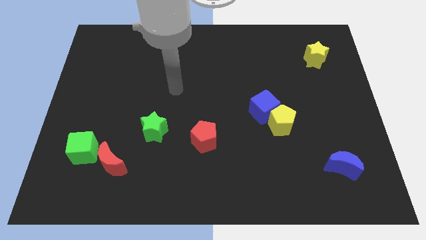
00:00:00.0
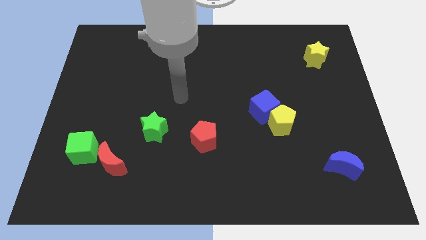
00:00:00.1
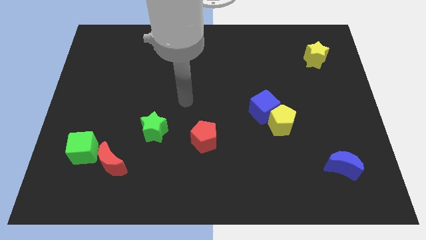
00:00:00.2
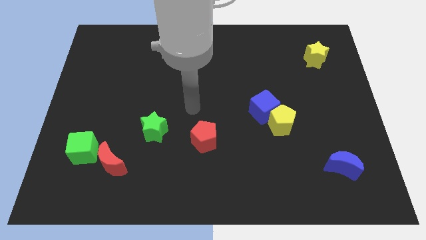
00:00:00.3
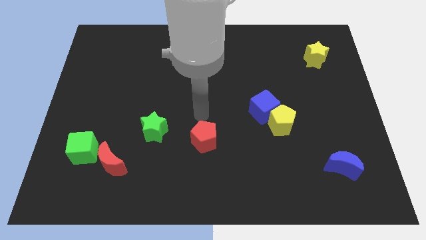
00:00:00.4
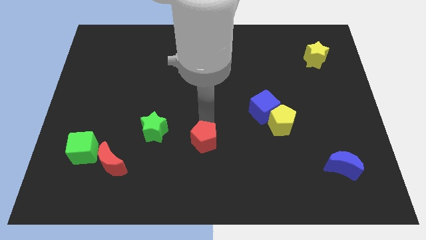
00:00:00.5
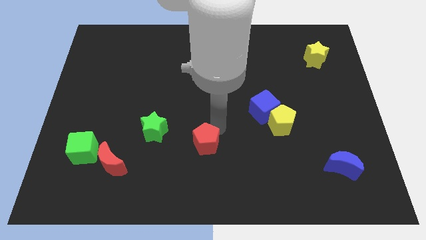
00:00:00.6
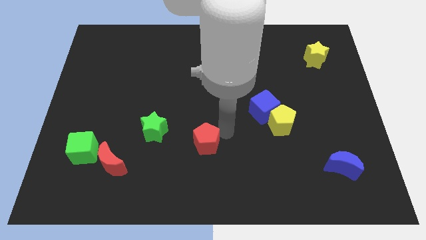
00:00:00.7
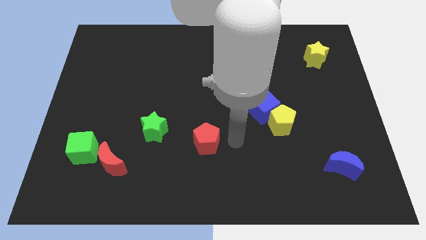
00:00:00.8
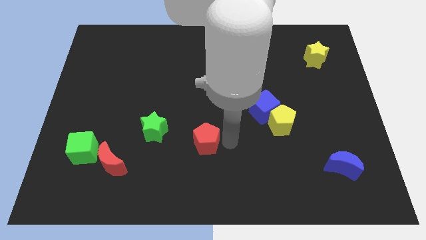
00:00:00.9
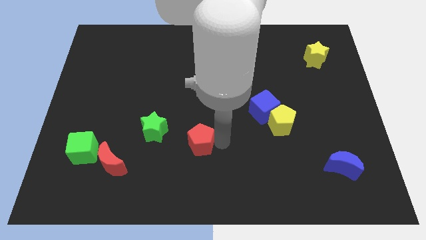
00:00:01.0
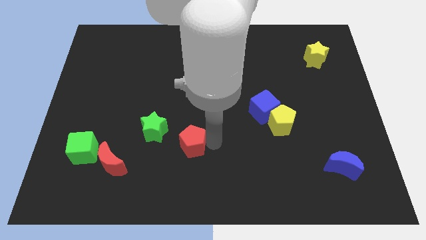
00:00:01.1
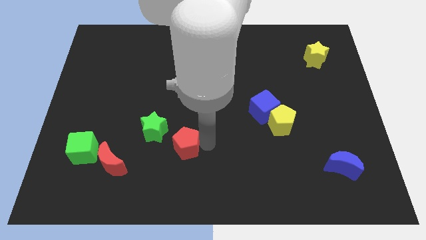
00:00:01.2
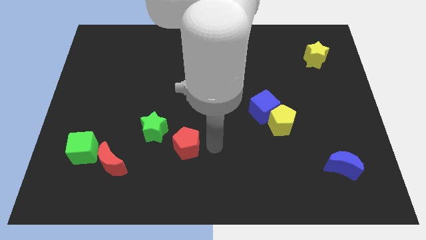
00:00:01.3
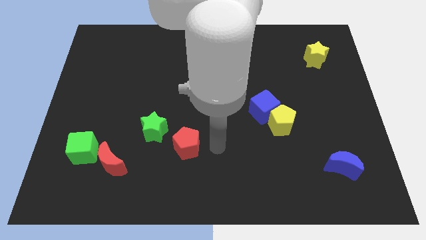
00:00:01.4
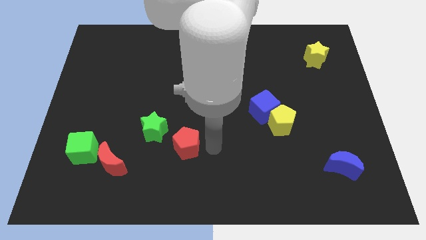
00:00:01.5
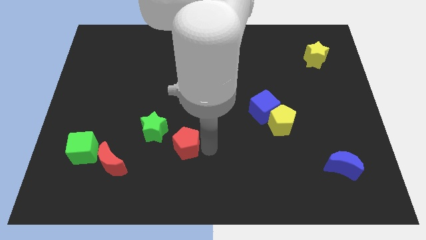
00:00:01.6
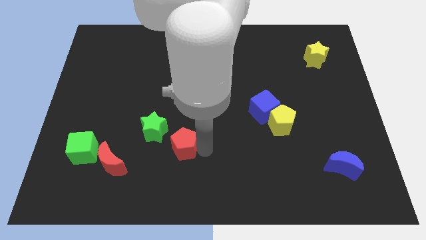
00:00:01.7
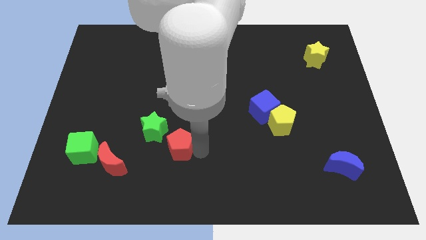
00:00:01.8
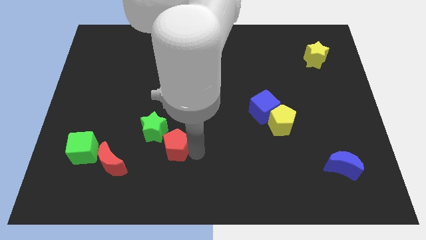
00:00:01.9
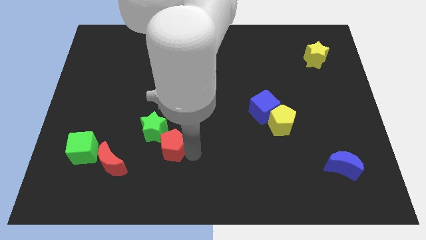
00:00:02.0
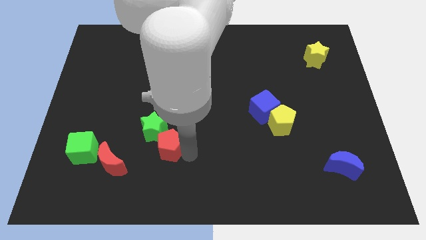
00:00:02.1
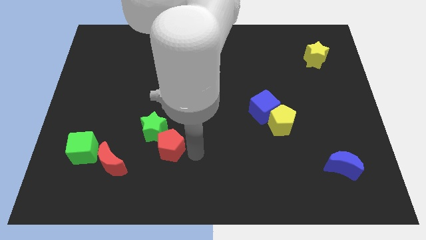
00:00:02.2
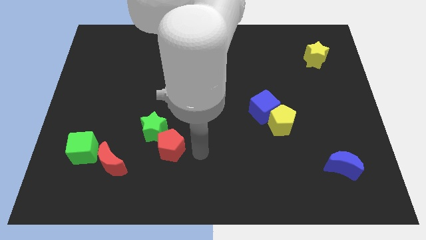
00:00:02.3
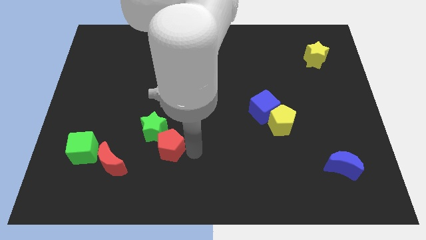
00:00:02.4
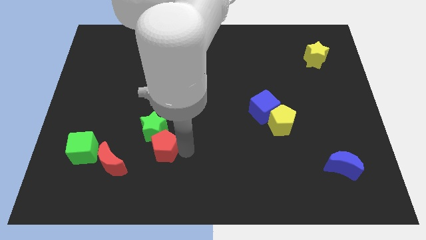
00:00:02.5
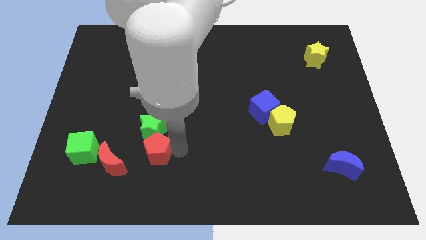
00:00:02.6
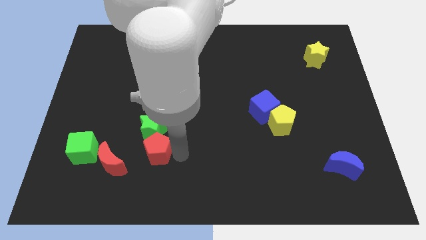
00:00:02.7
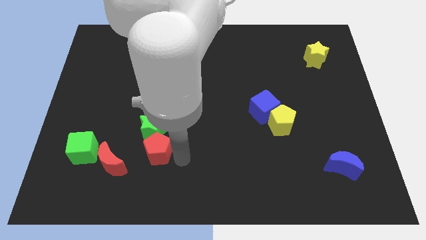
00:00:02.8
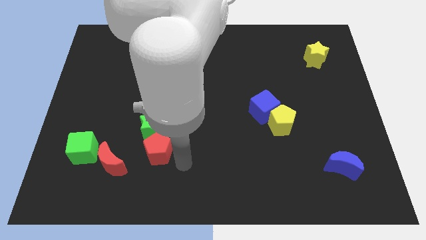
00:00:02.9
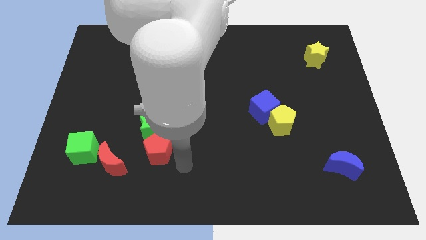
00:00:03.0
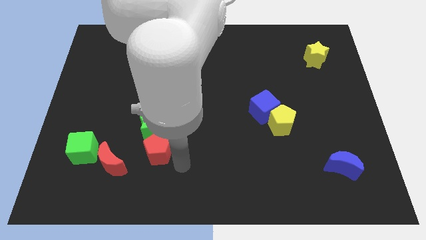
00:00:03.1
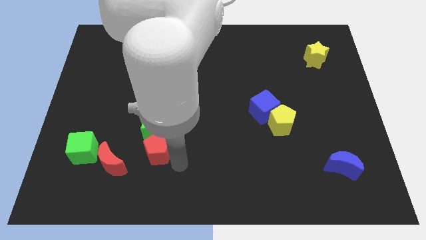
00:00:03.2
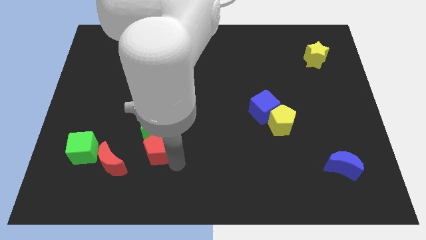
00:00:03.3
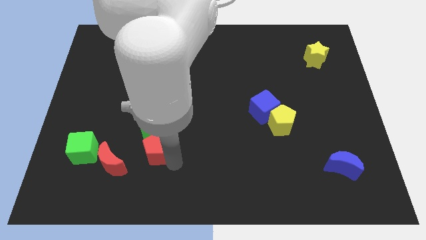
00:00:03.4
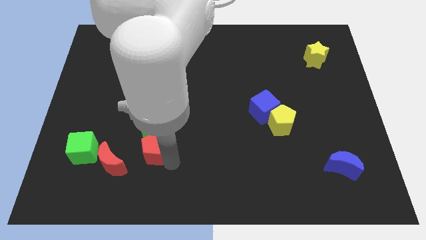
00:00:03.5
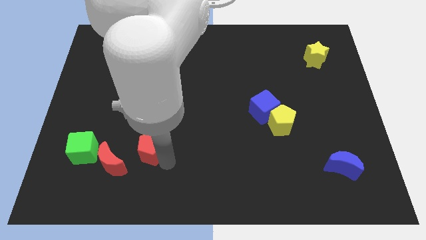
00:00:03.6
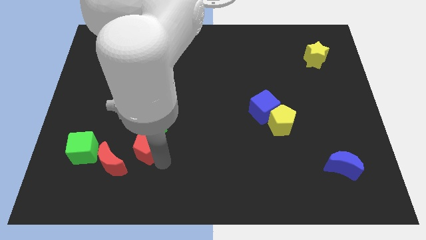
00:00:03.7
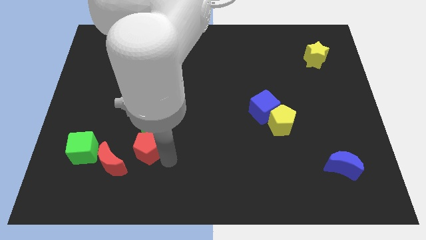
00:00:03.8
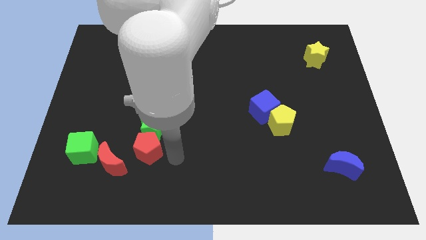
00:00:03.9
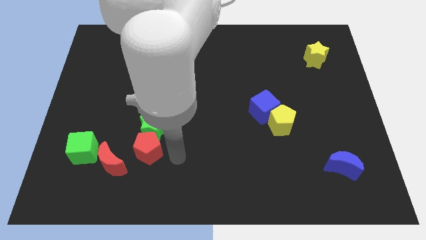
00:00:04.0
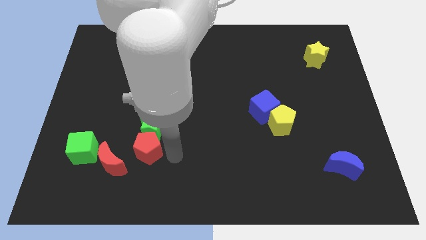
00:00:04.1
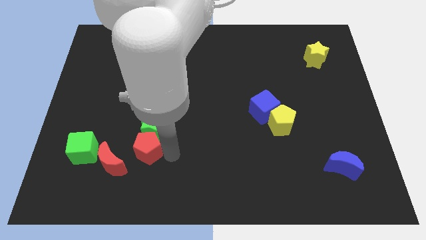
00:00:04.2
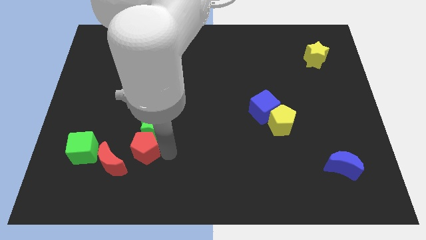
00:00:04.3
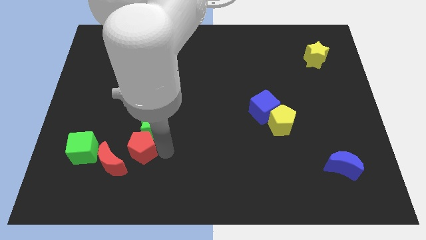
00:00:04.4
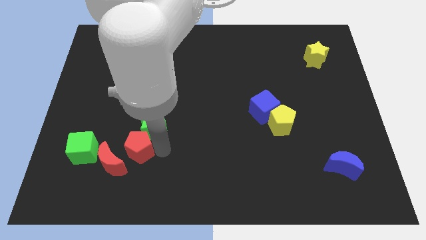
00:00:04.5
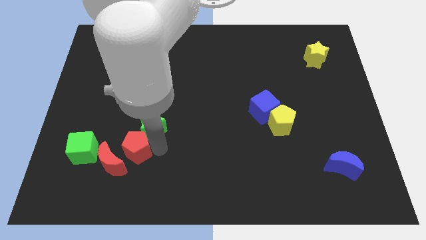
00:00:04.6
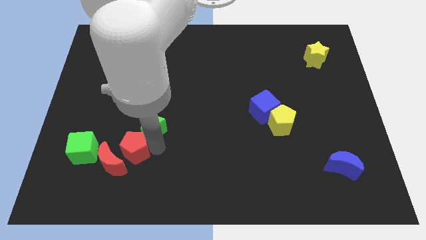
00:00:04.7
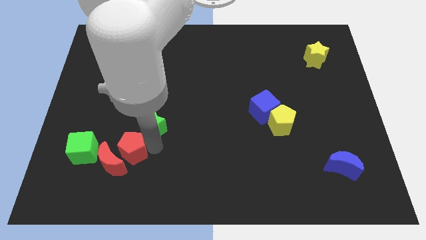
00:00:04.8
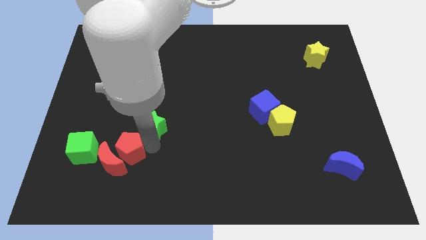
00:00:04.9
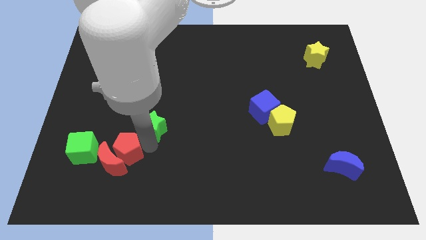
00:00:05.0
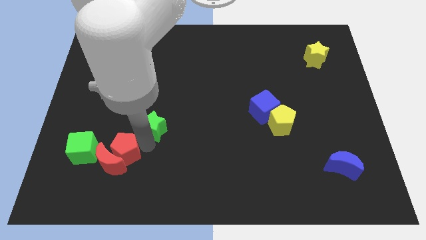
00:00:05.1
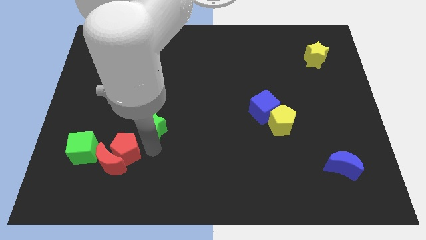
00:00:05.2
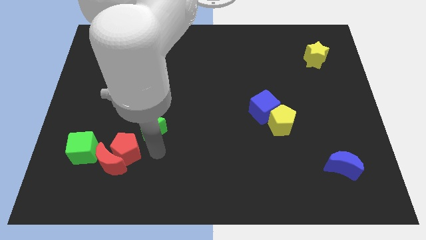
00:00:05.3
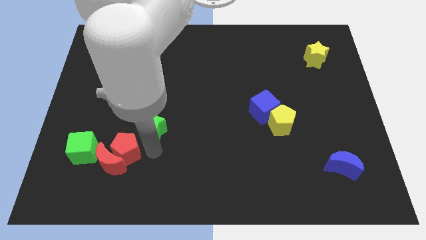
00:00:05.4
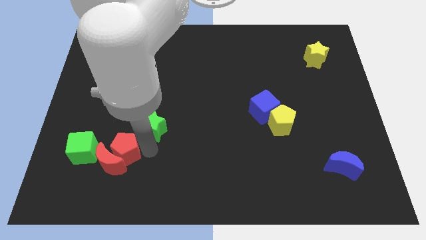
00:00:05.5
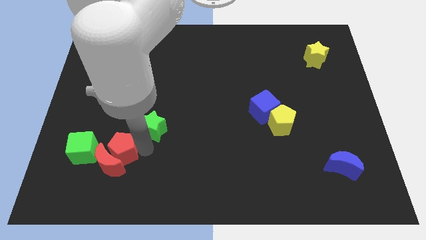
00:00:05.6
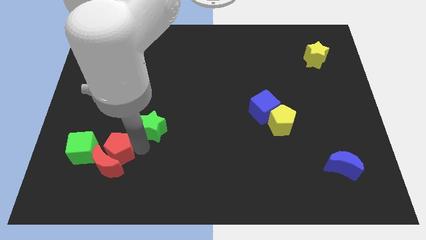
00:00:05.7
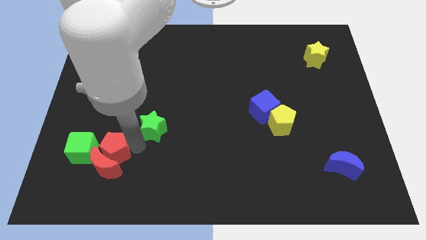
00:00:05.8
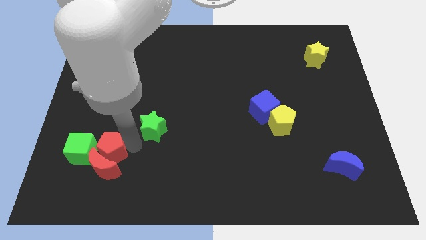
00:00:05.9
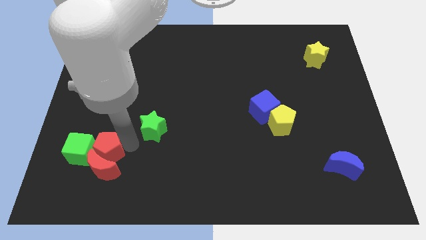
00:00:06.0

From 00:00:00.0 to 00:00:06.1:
put the red pentagon close to the green cube

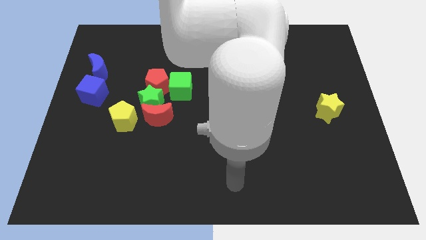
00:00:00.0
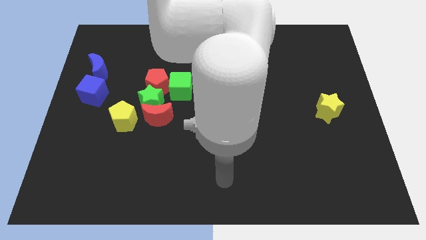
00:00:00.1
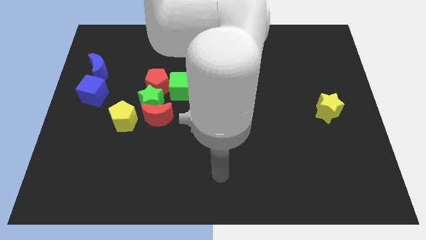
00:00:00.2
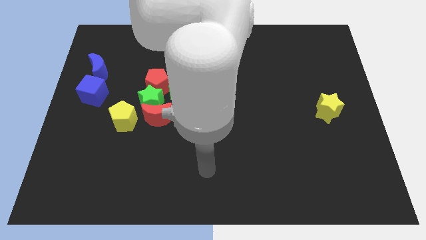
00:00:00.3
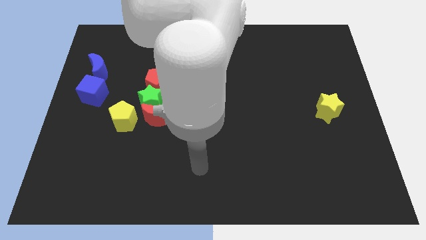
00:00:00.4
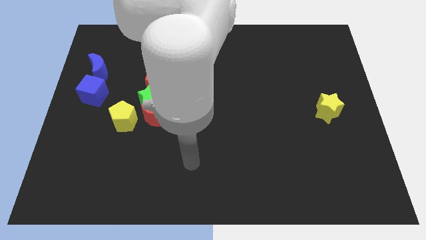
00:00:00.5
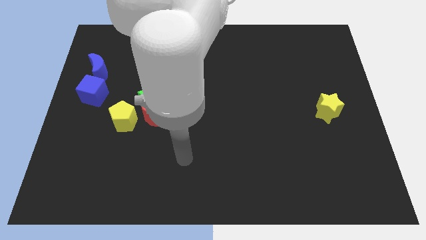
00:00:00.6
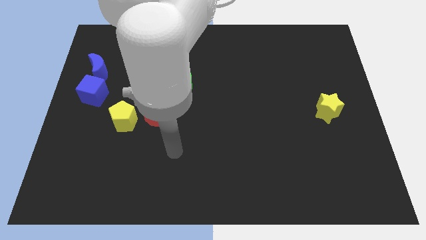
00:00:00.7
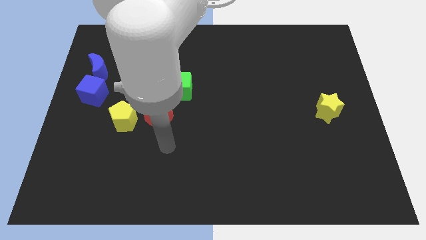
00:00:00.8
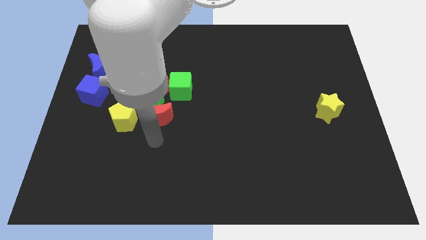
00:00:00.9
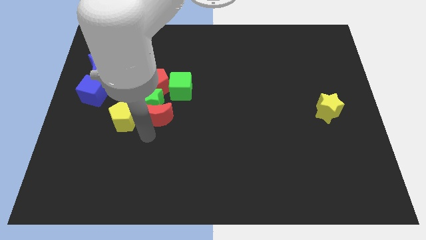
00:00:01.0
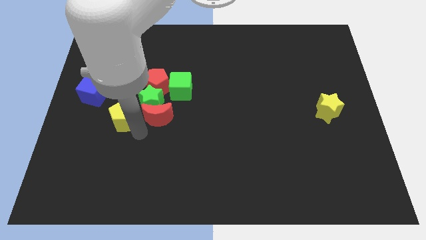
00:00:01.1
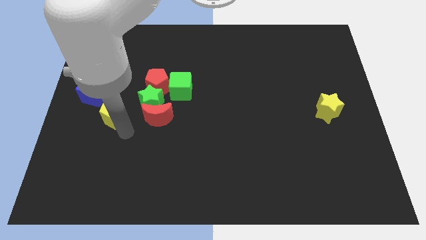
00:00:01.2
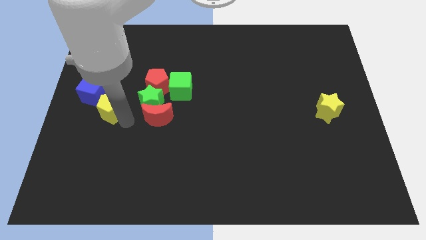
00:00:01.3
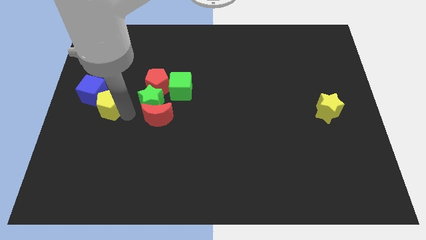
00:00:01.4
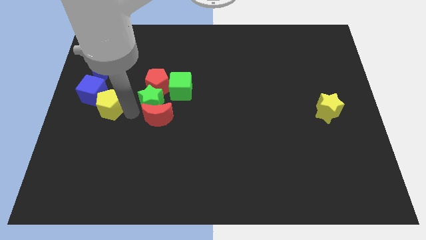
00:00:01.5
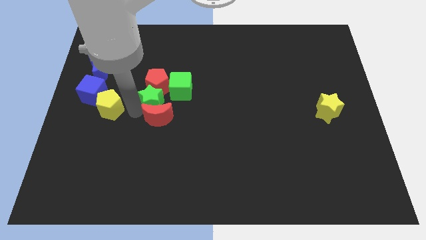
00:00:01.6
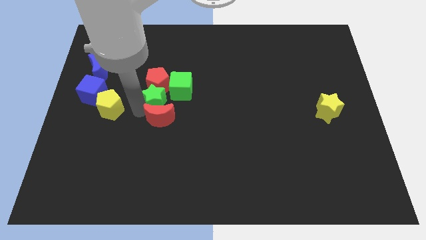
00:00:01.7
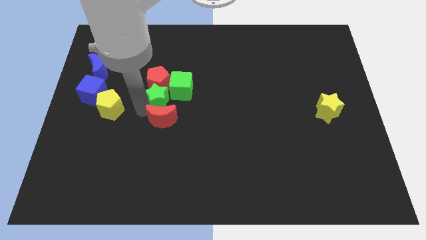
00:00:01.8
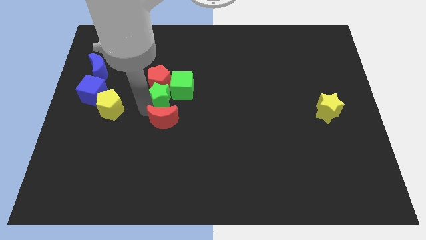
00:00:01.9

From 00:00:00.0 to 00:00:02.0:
put the green star next to the green cube
